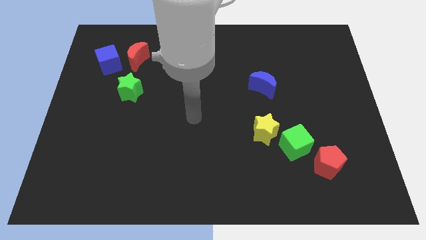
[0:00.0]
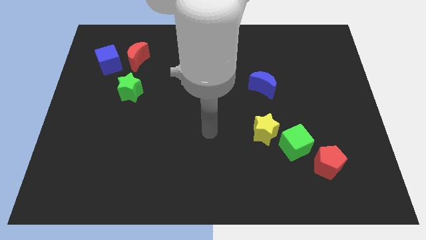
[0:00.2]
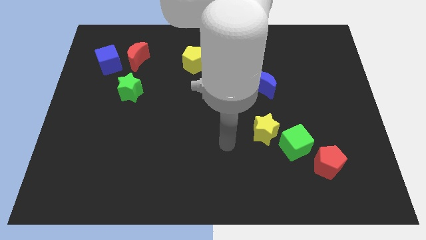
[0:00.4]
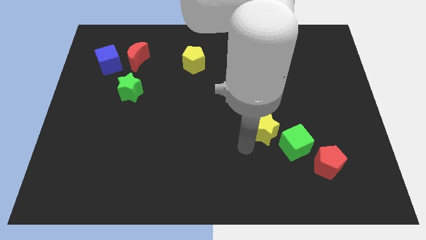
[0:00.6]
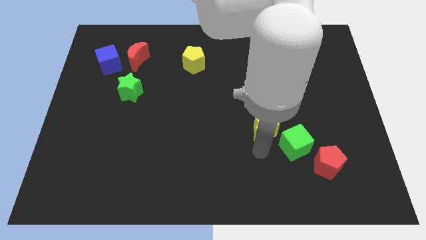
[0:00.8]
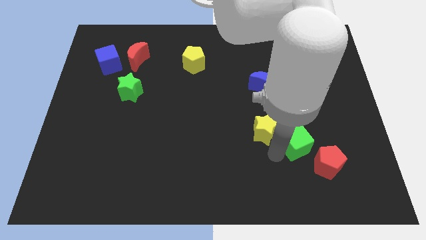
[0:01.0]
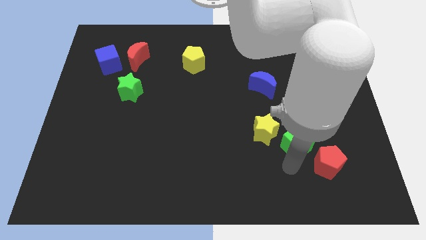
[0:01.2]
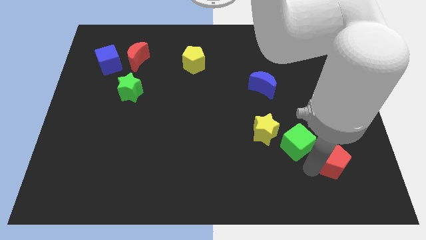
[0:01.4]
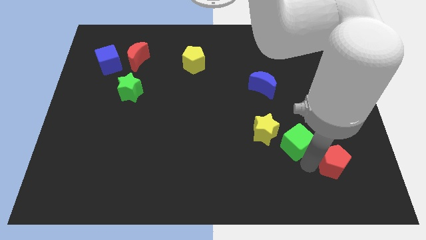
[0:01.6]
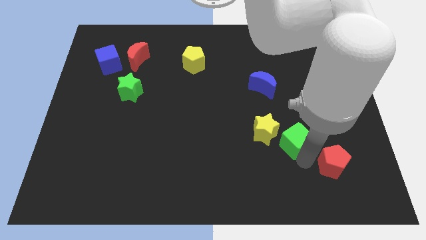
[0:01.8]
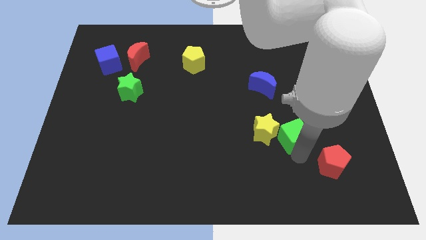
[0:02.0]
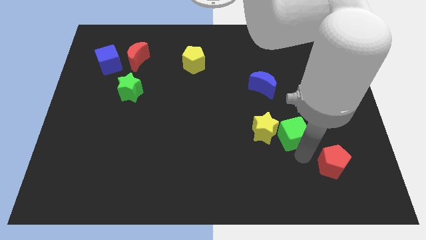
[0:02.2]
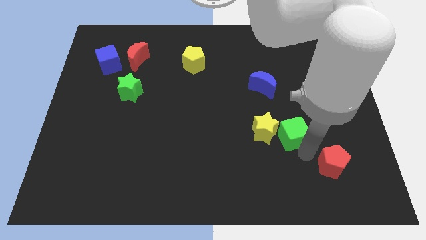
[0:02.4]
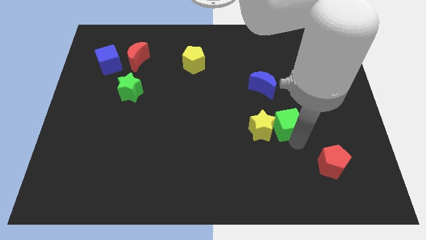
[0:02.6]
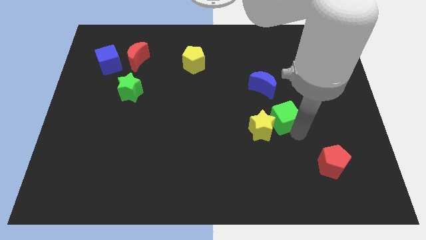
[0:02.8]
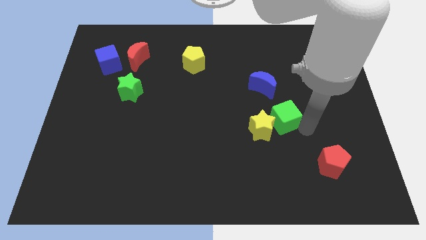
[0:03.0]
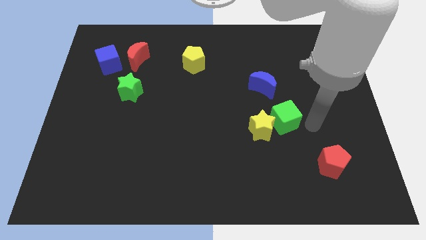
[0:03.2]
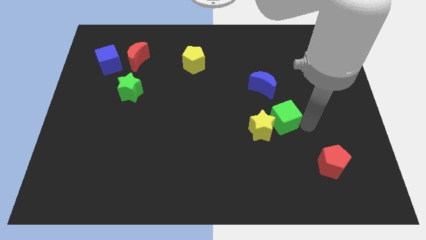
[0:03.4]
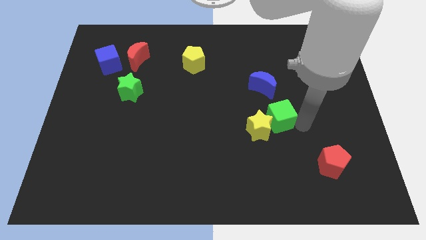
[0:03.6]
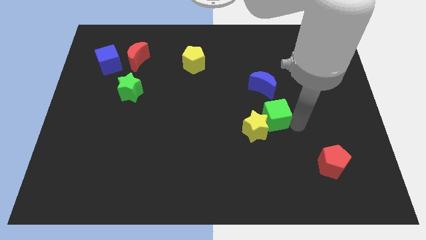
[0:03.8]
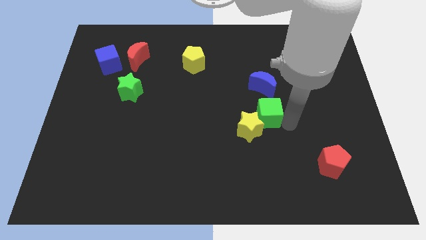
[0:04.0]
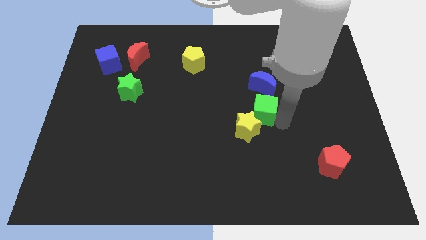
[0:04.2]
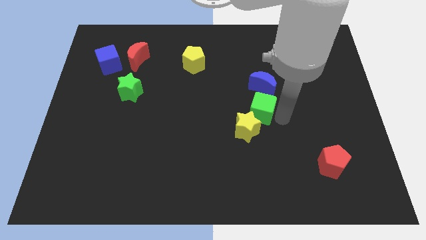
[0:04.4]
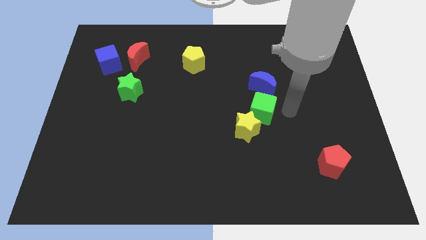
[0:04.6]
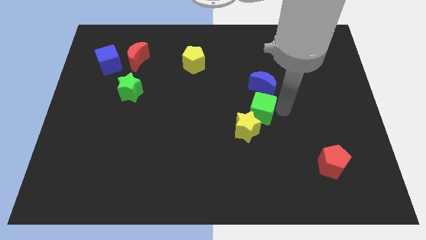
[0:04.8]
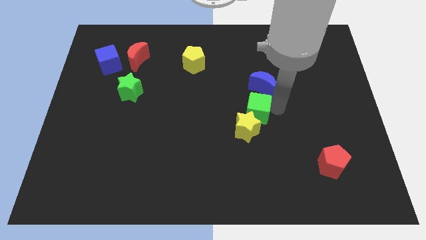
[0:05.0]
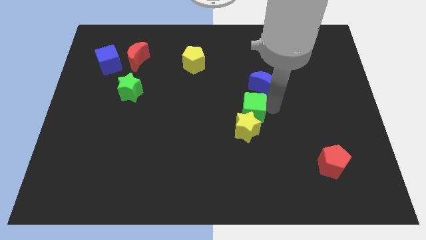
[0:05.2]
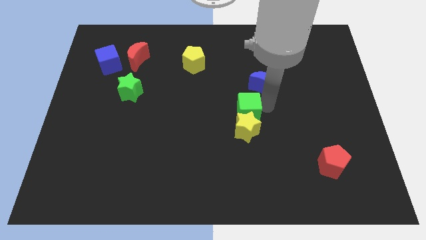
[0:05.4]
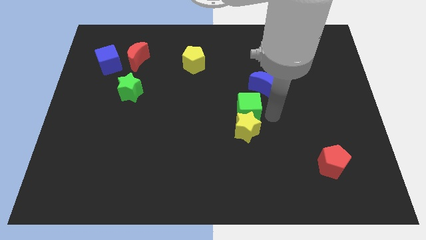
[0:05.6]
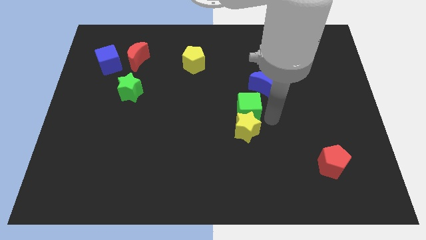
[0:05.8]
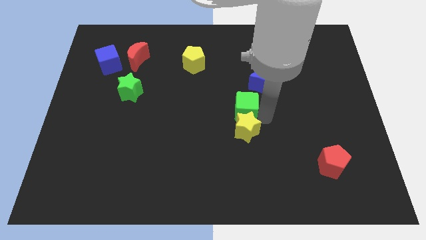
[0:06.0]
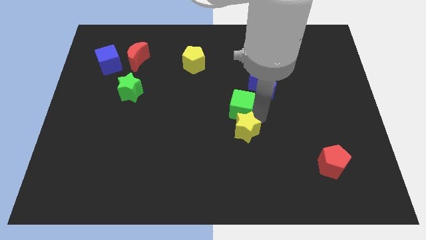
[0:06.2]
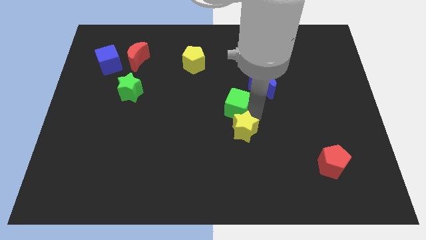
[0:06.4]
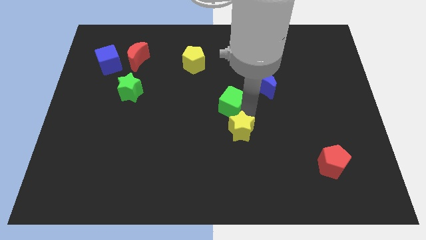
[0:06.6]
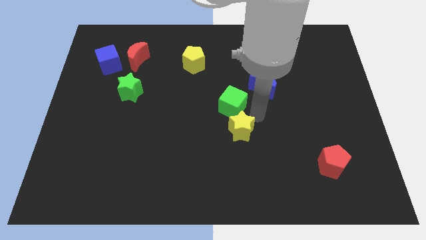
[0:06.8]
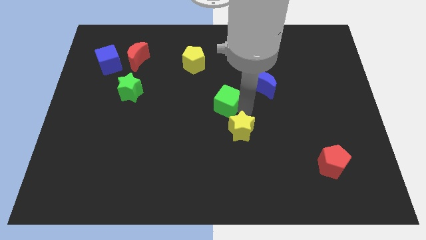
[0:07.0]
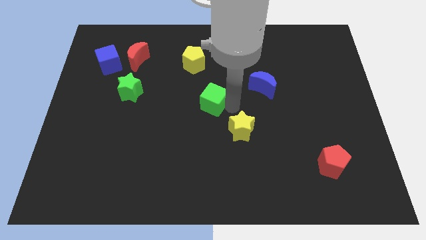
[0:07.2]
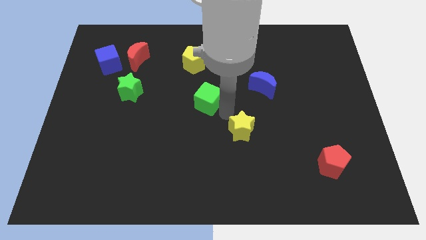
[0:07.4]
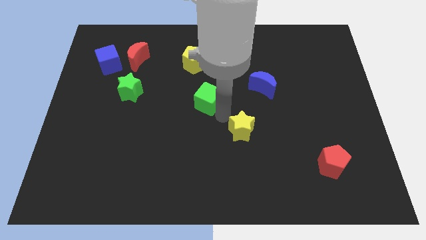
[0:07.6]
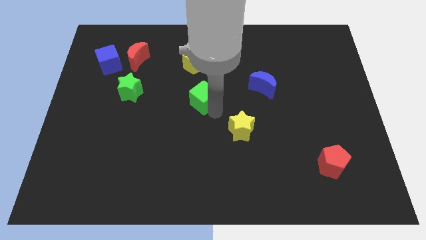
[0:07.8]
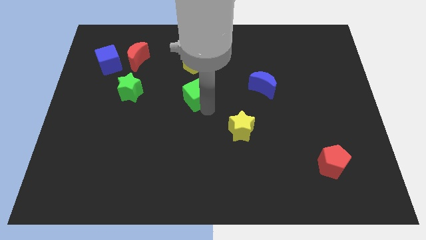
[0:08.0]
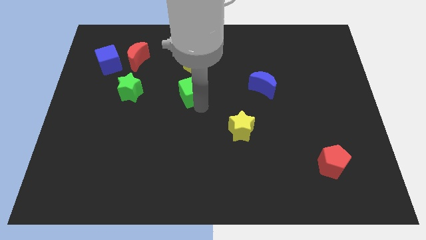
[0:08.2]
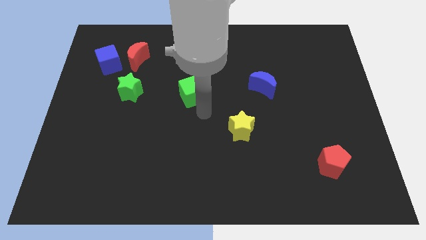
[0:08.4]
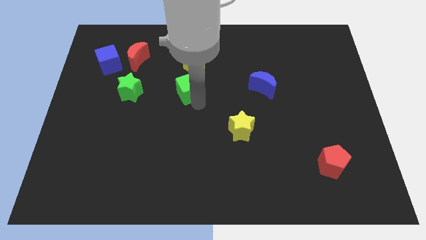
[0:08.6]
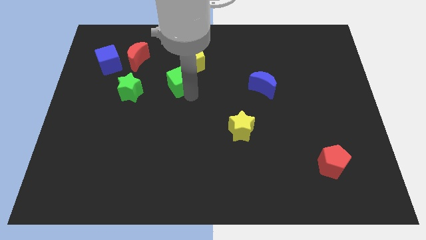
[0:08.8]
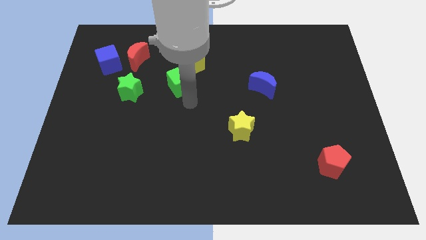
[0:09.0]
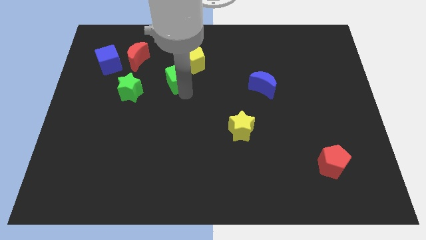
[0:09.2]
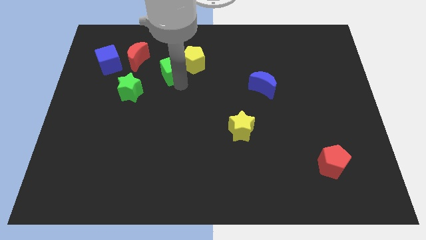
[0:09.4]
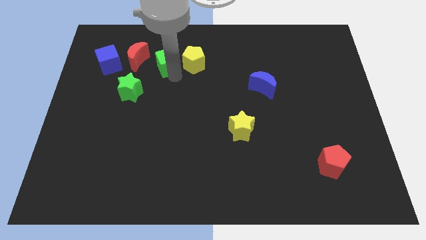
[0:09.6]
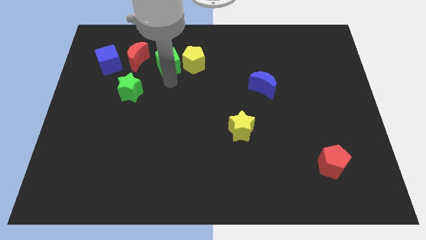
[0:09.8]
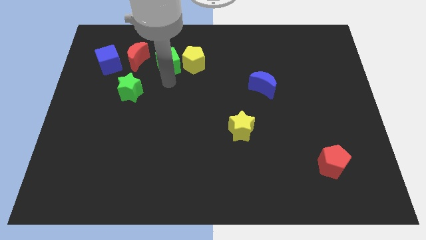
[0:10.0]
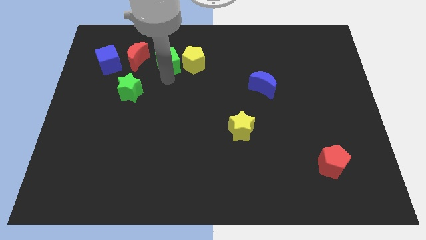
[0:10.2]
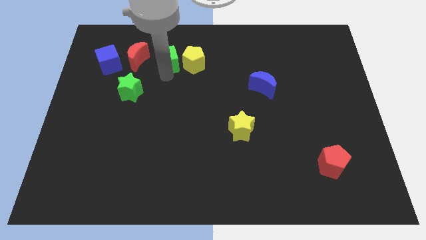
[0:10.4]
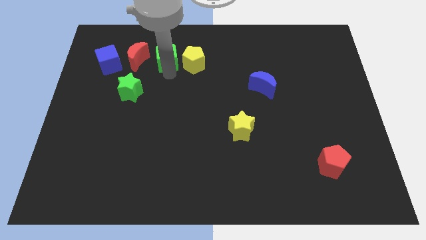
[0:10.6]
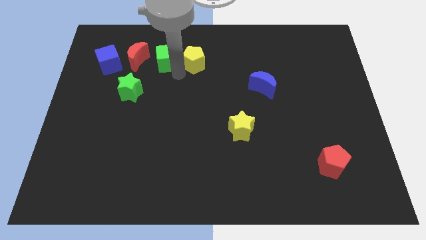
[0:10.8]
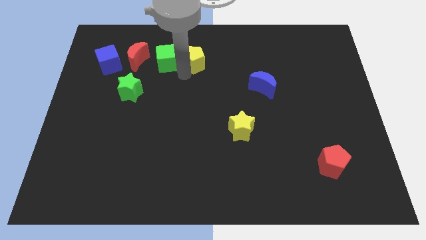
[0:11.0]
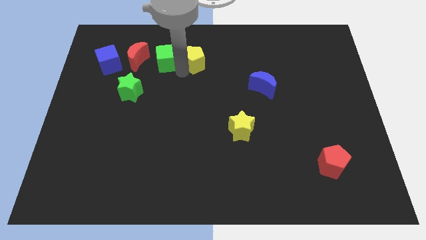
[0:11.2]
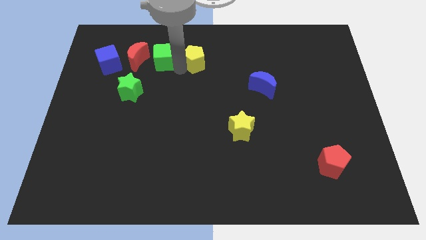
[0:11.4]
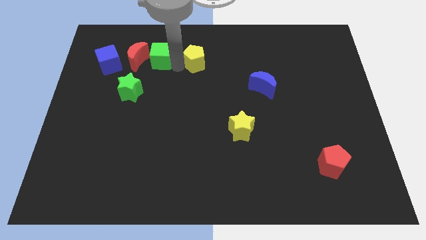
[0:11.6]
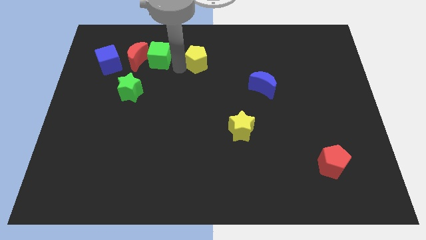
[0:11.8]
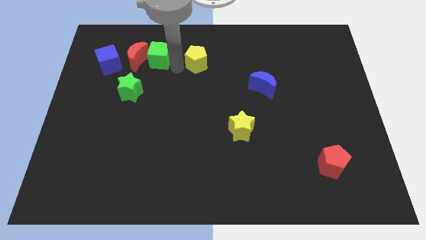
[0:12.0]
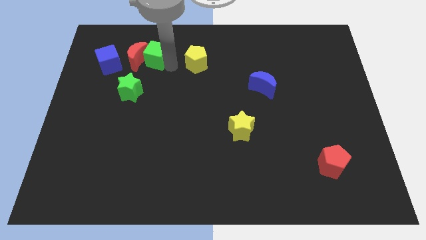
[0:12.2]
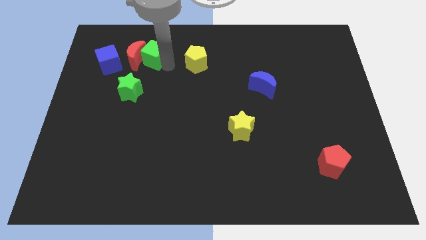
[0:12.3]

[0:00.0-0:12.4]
move the green cube to the top of the green star
